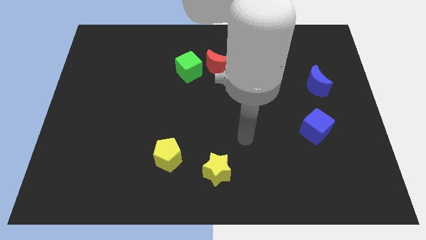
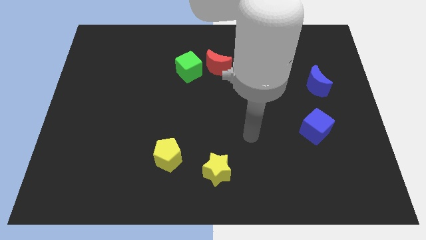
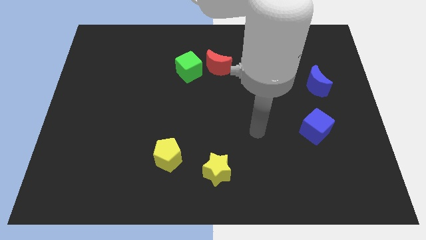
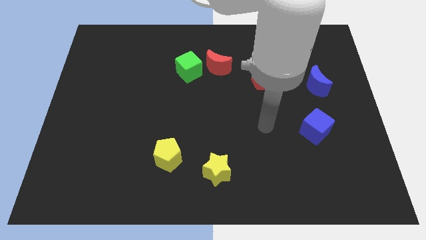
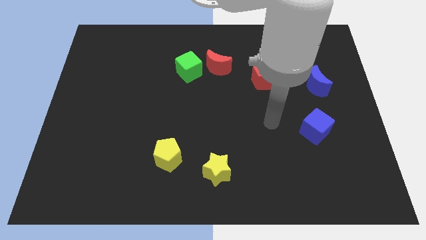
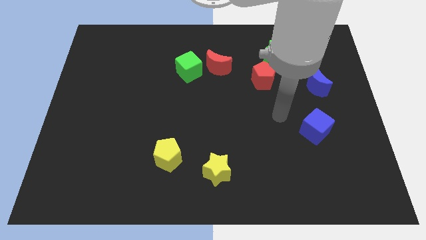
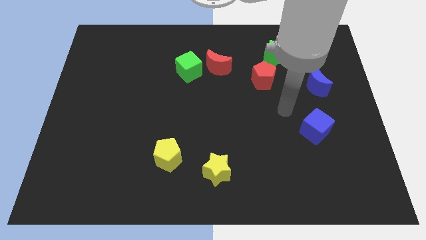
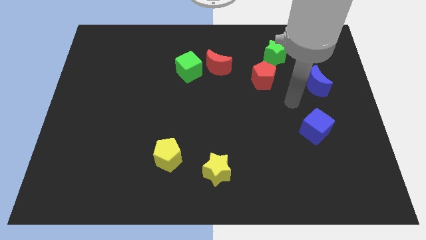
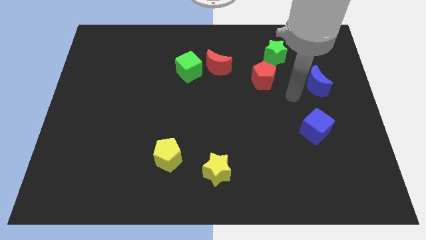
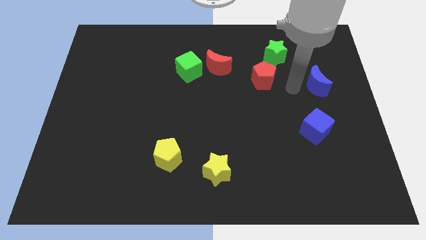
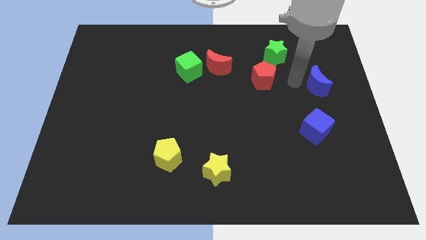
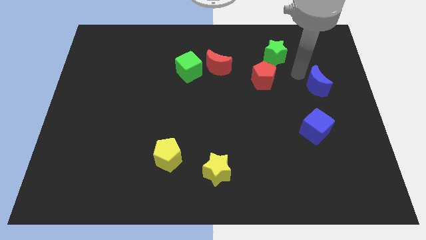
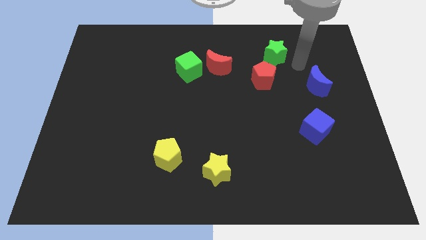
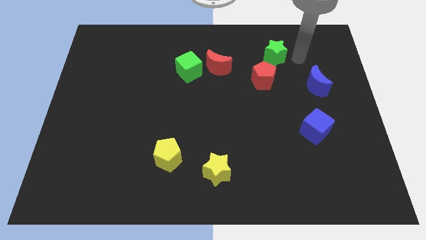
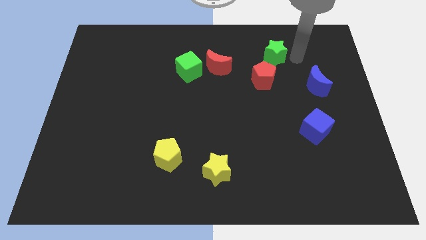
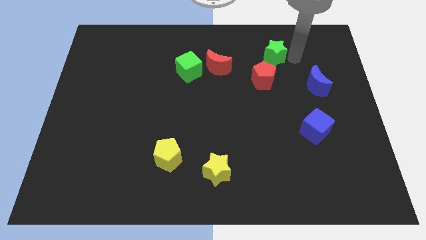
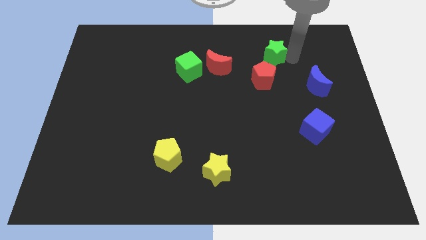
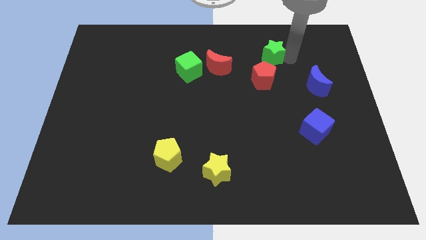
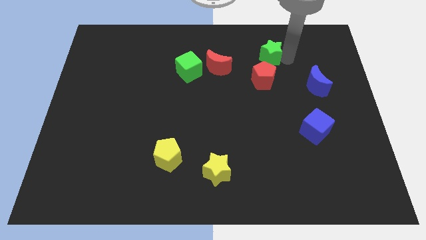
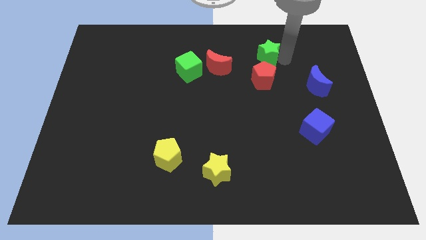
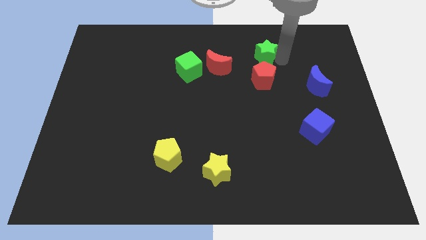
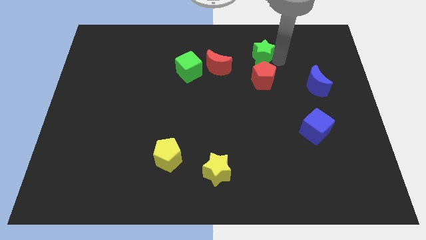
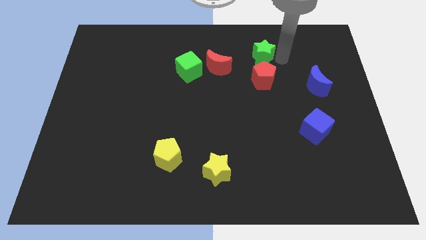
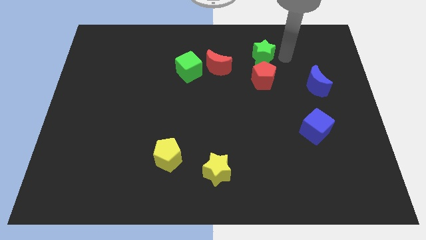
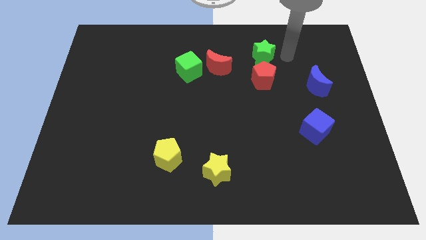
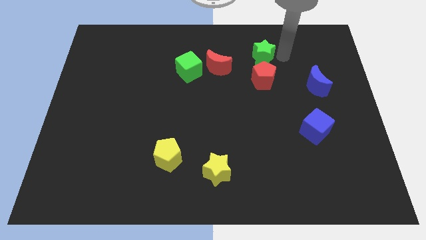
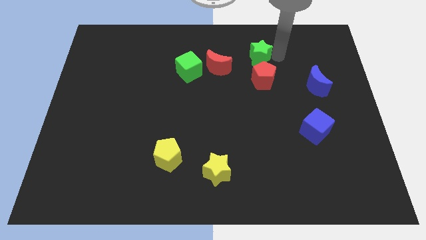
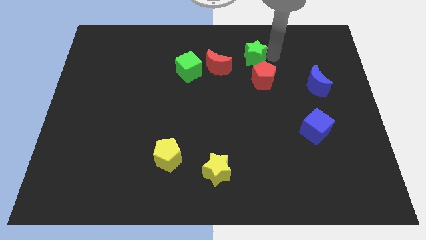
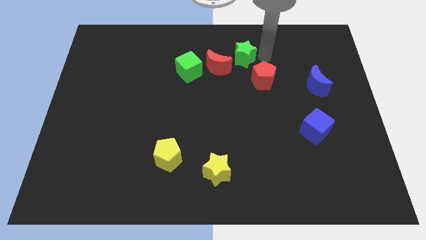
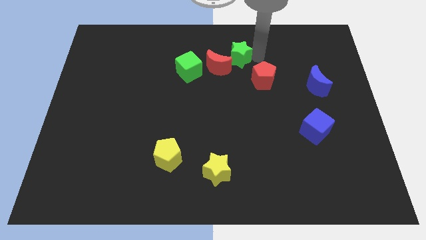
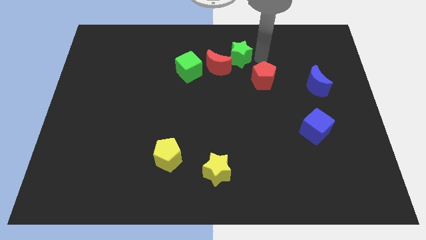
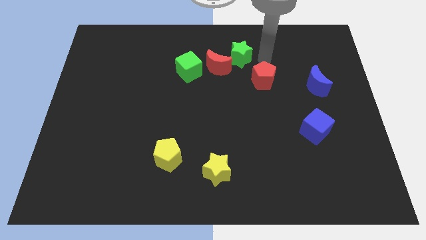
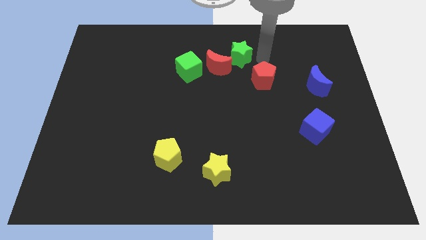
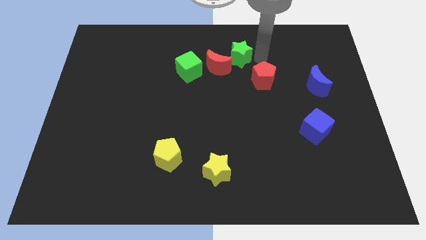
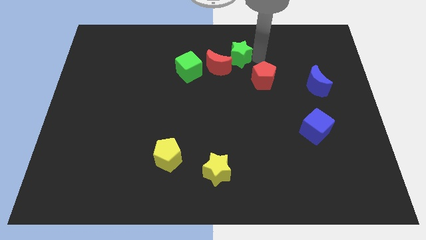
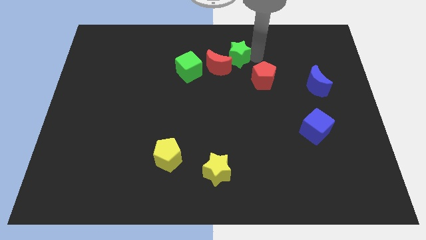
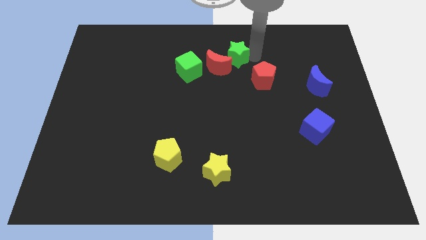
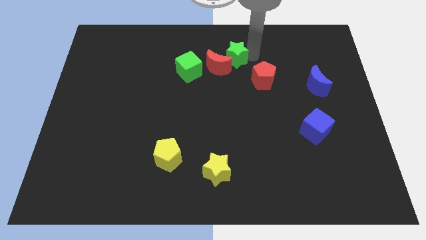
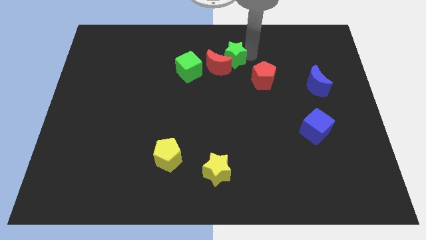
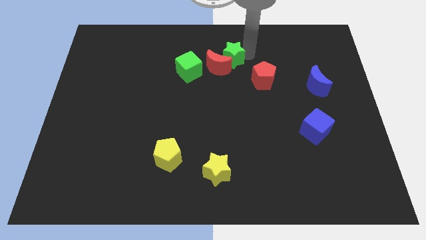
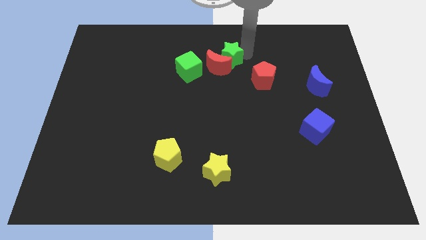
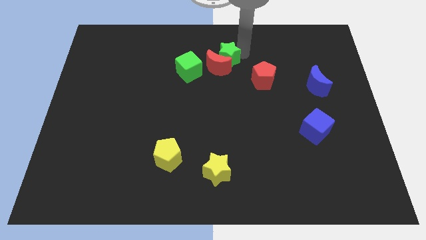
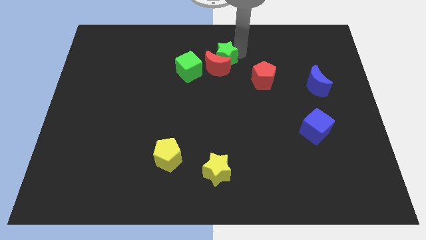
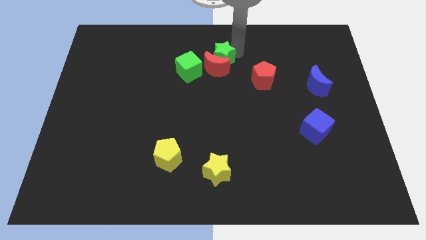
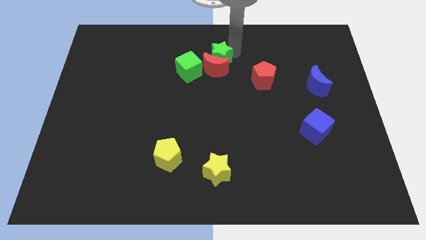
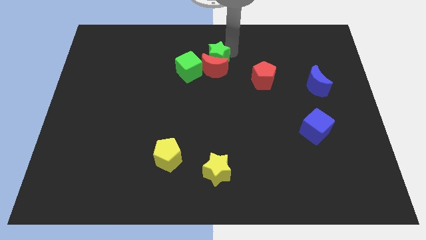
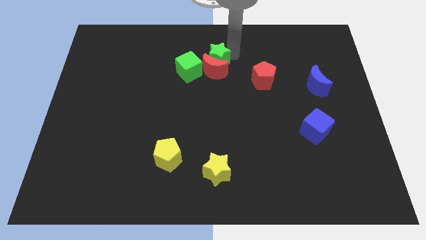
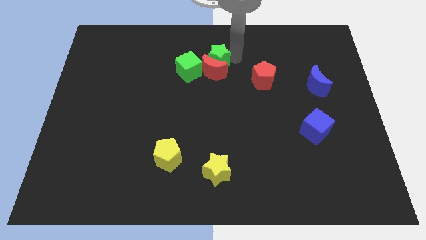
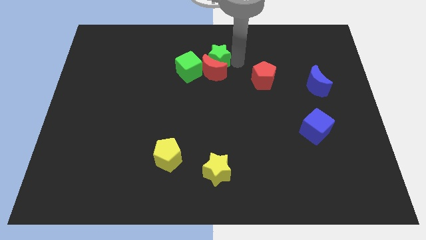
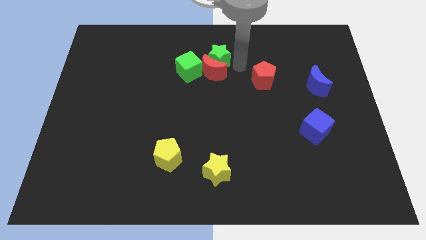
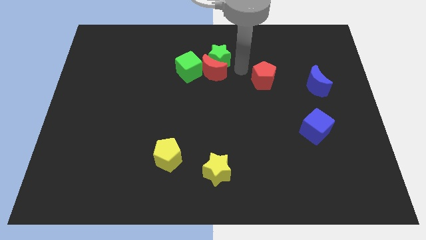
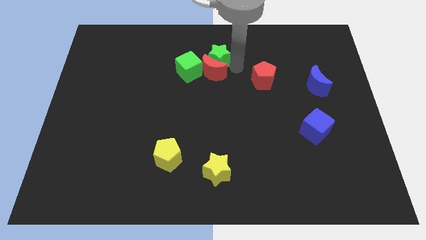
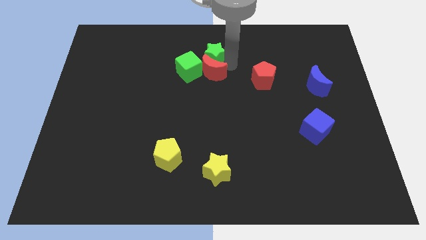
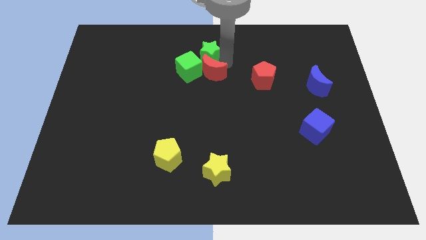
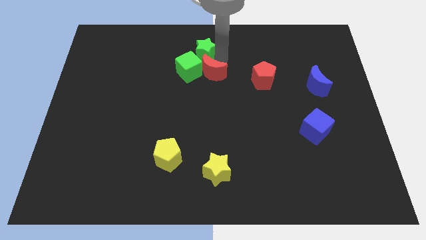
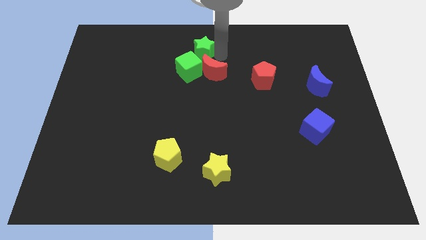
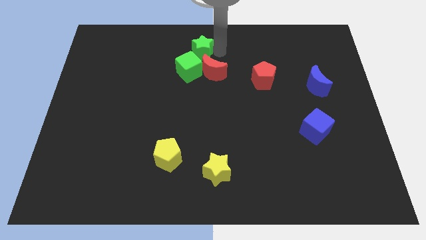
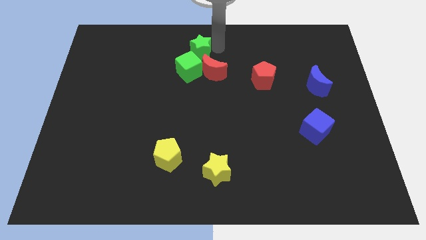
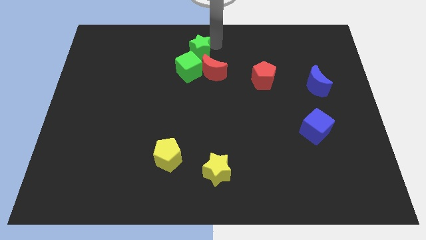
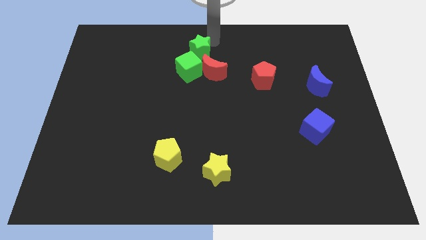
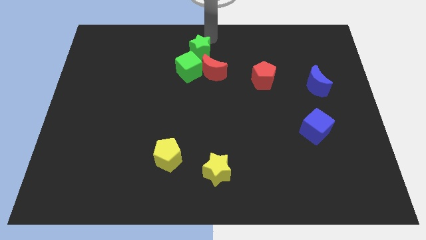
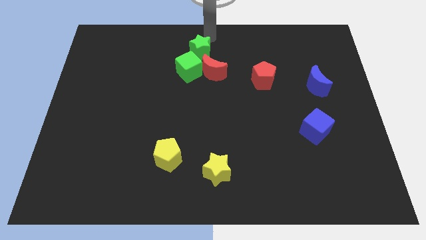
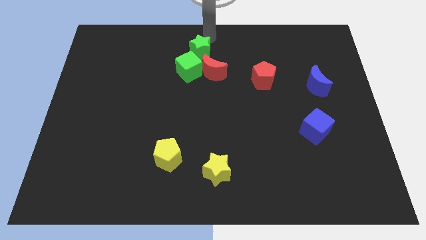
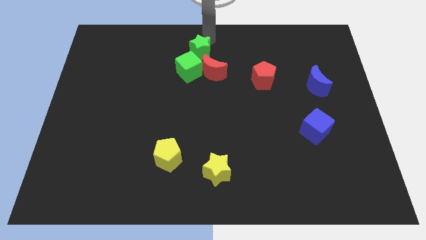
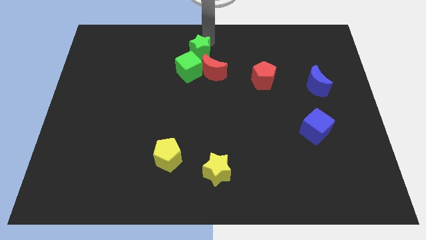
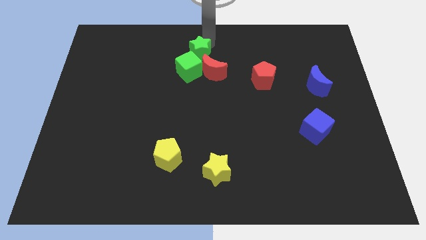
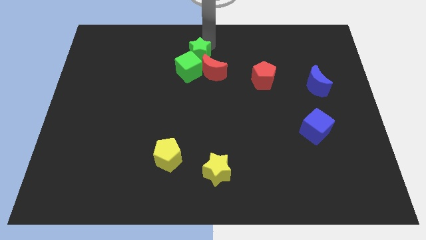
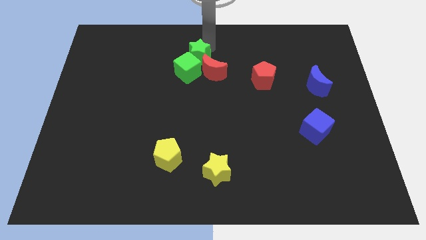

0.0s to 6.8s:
put the green star towards the green cube
